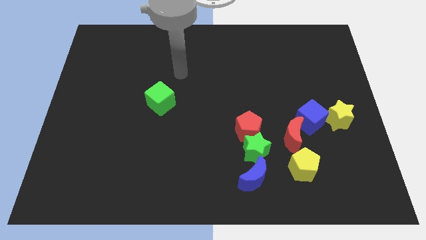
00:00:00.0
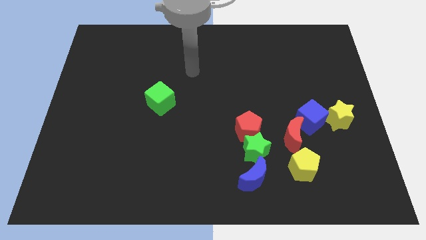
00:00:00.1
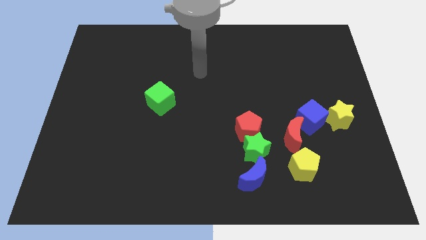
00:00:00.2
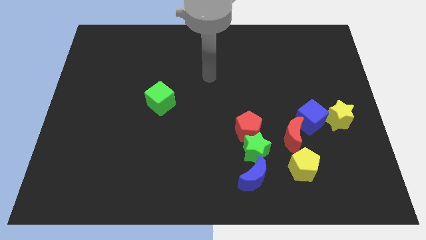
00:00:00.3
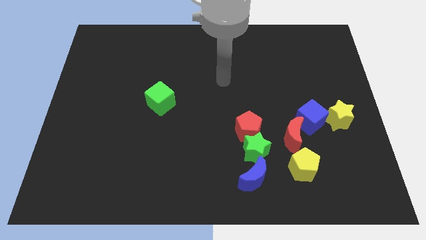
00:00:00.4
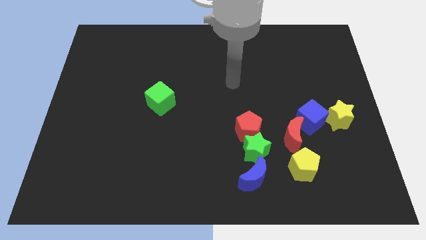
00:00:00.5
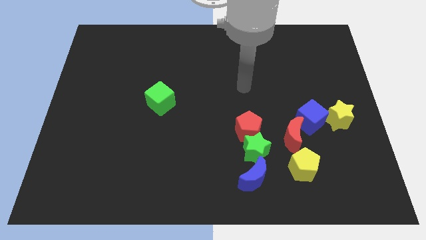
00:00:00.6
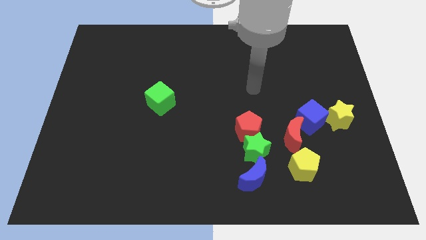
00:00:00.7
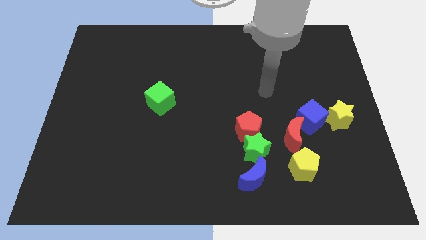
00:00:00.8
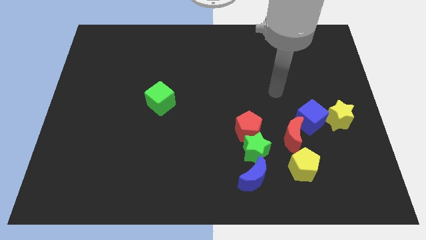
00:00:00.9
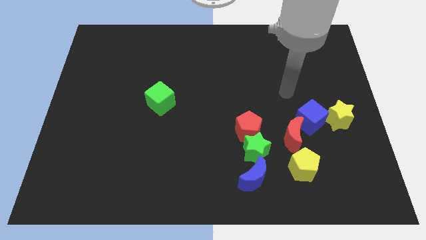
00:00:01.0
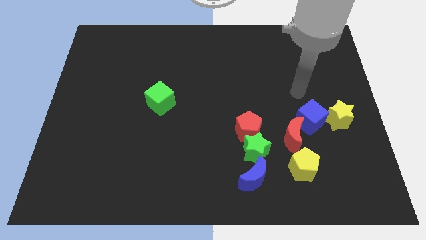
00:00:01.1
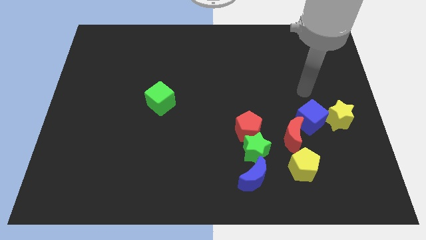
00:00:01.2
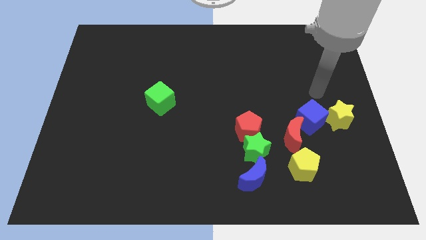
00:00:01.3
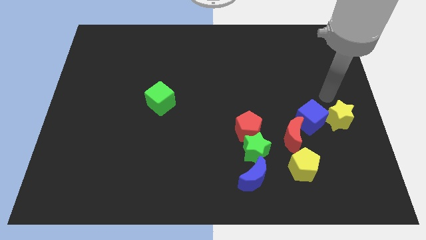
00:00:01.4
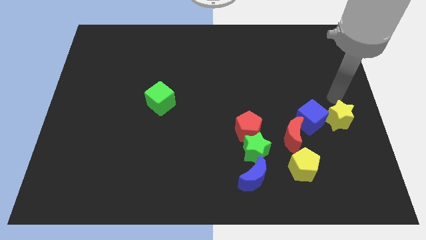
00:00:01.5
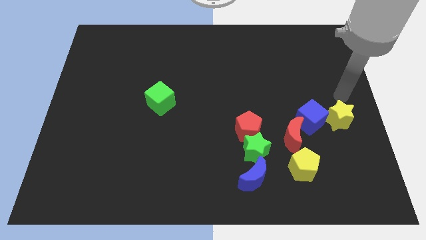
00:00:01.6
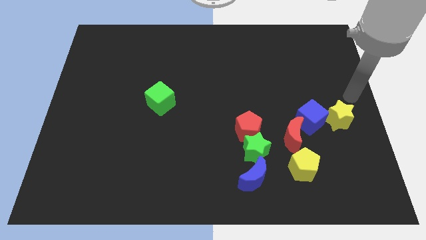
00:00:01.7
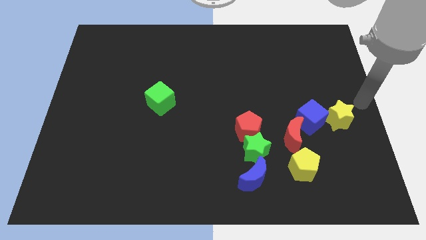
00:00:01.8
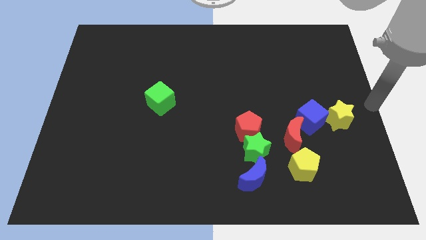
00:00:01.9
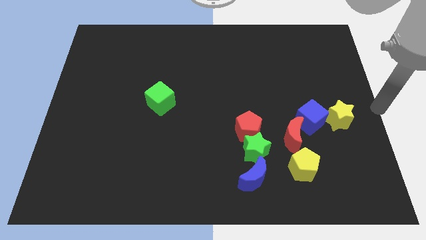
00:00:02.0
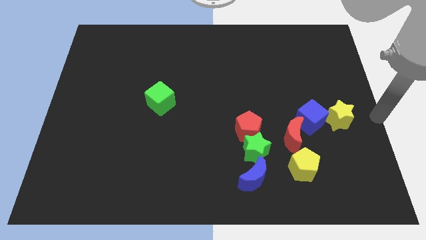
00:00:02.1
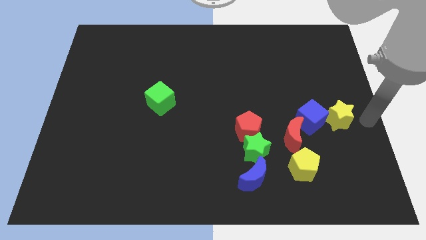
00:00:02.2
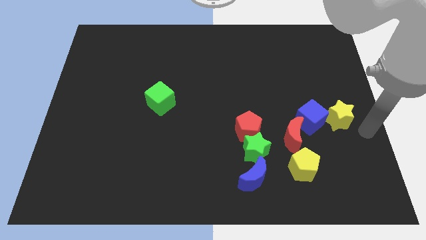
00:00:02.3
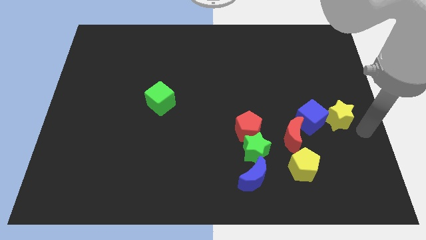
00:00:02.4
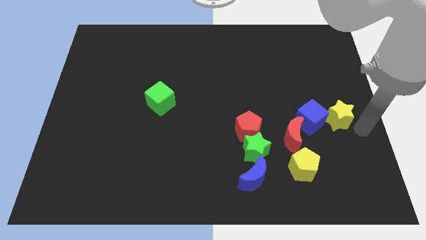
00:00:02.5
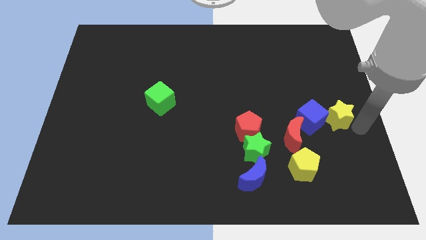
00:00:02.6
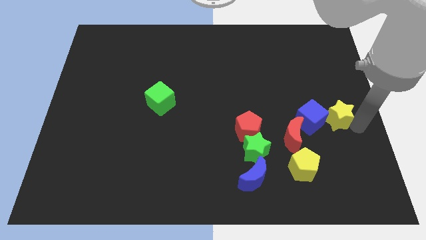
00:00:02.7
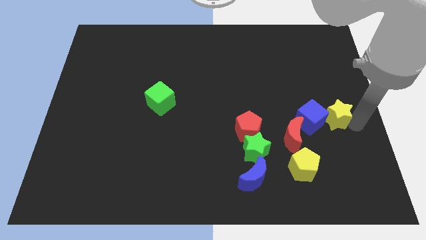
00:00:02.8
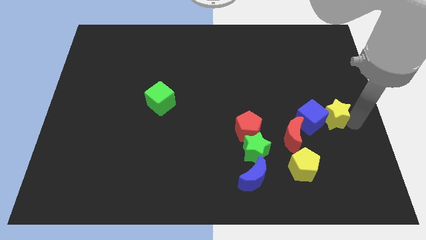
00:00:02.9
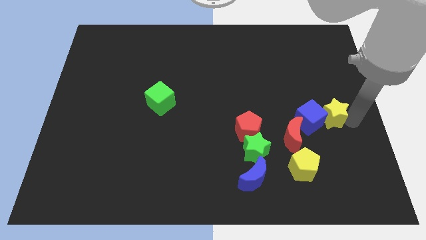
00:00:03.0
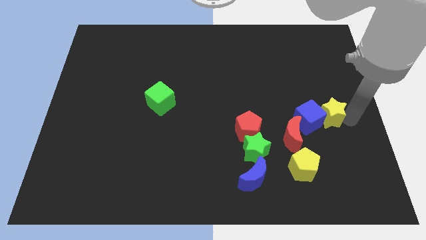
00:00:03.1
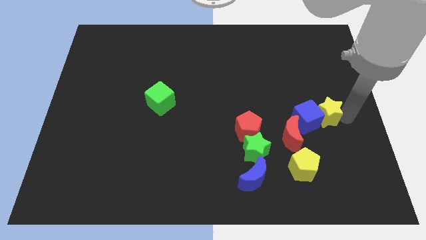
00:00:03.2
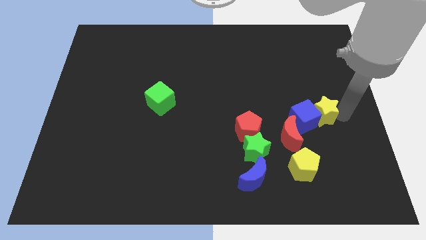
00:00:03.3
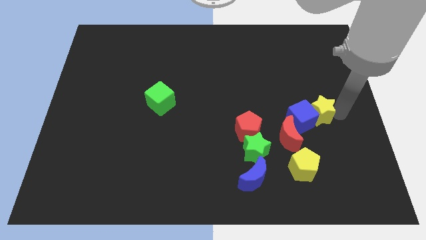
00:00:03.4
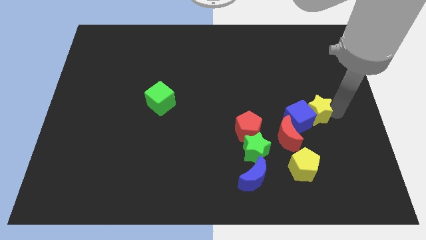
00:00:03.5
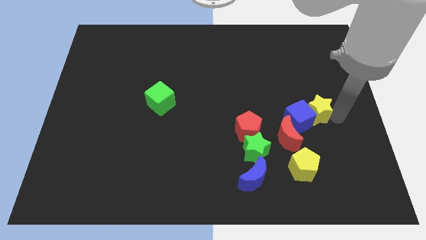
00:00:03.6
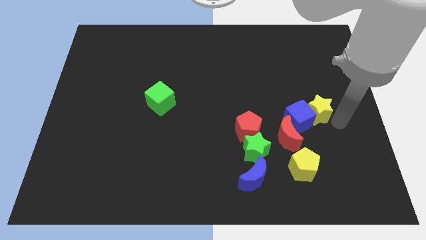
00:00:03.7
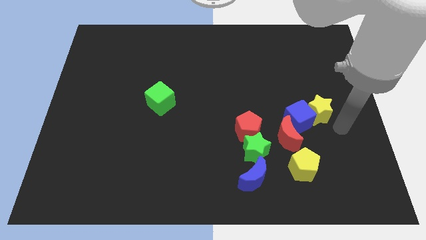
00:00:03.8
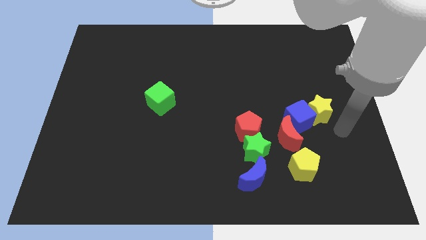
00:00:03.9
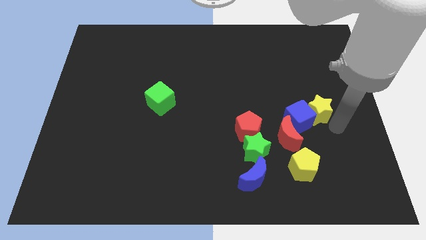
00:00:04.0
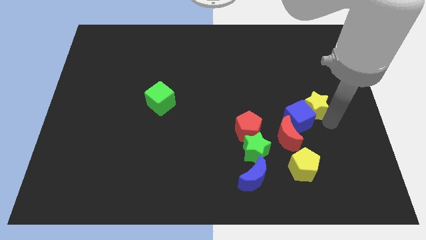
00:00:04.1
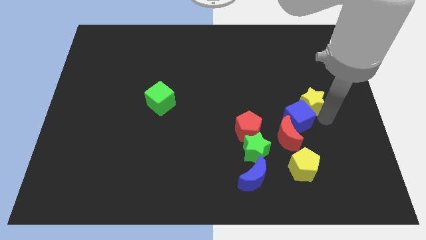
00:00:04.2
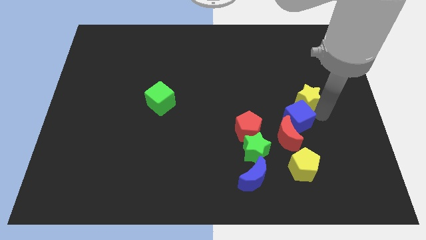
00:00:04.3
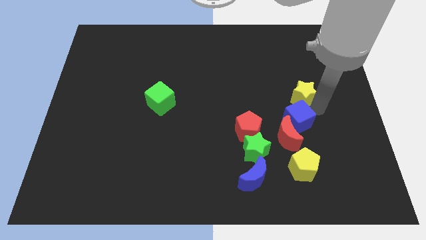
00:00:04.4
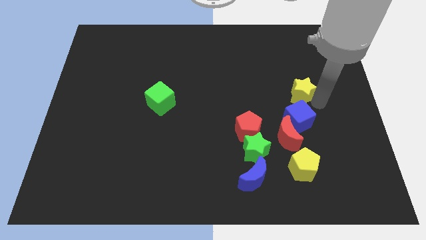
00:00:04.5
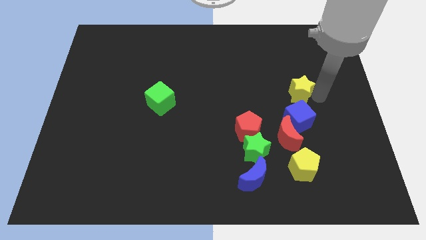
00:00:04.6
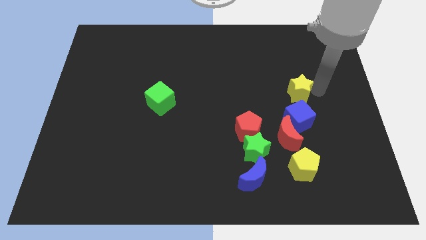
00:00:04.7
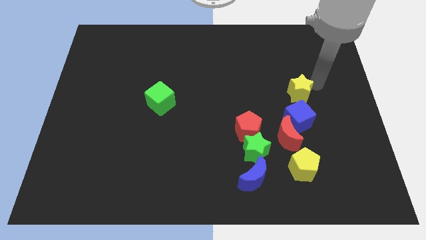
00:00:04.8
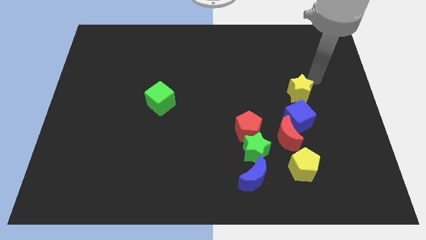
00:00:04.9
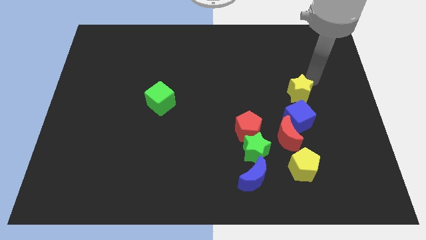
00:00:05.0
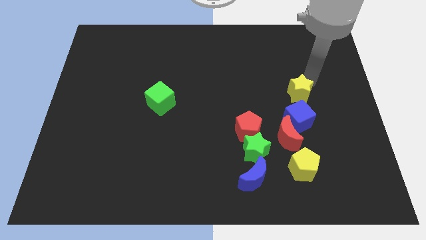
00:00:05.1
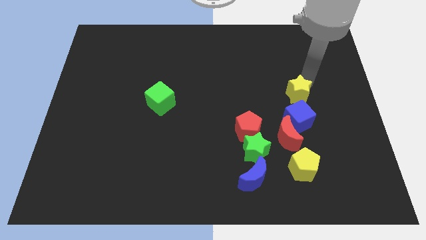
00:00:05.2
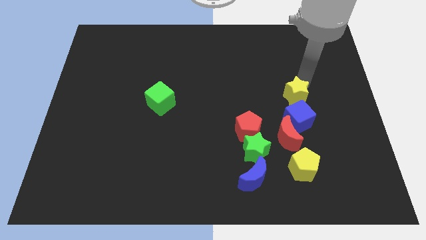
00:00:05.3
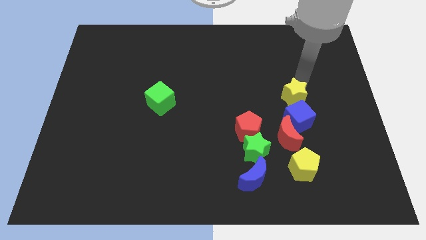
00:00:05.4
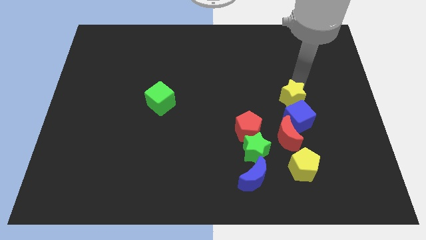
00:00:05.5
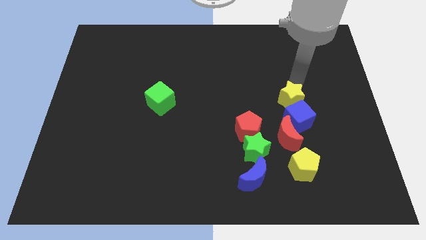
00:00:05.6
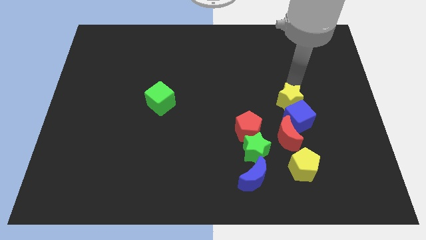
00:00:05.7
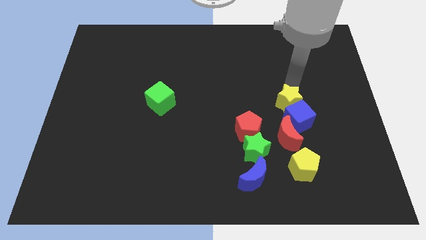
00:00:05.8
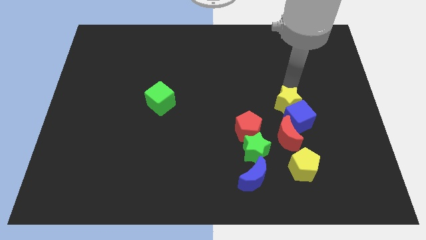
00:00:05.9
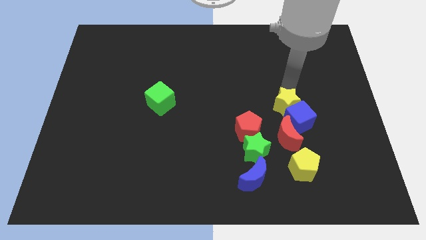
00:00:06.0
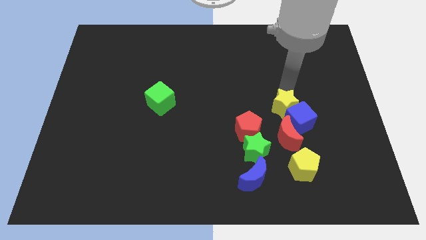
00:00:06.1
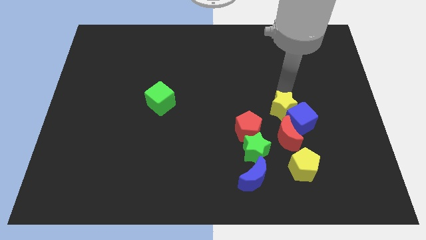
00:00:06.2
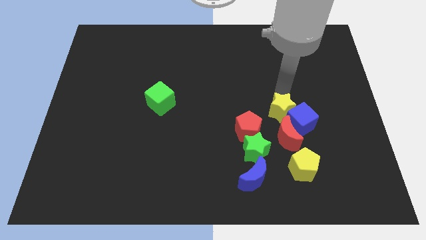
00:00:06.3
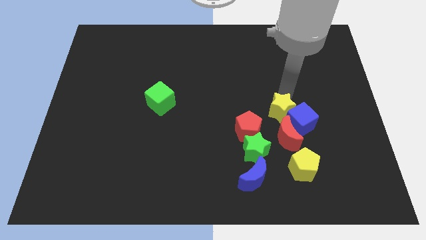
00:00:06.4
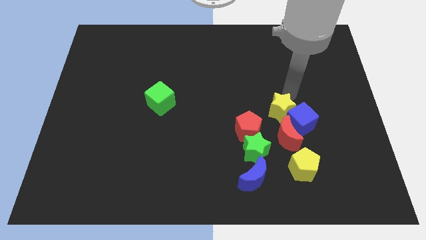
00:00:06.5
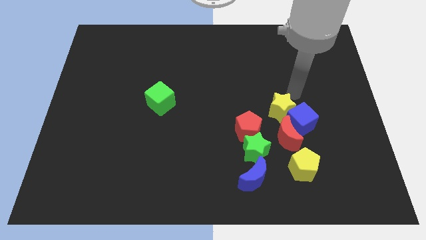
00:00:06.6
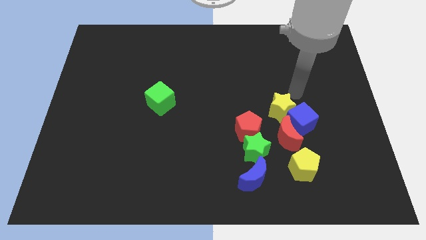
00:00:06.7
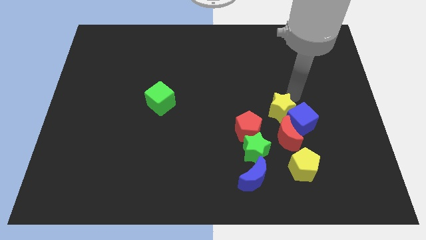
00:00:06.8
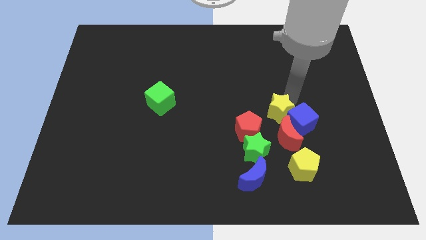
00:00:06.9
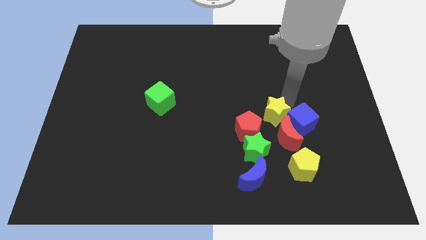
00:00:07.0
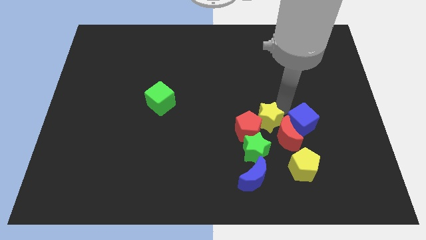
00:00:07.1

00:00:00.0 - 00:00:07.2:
slide the yellow star next to the red pentagon
